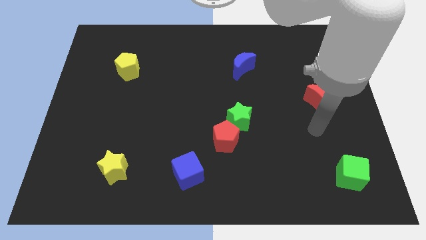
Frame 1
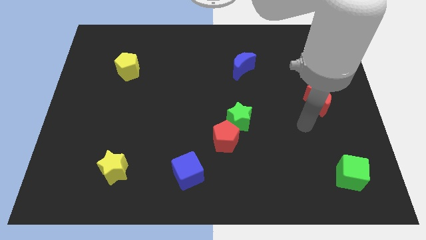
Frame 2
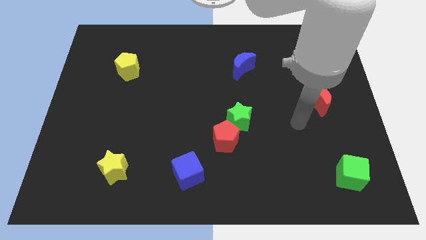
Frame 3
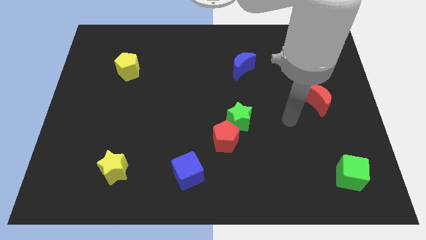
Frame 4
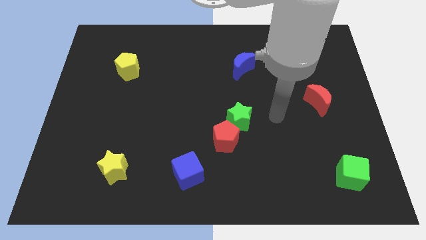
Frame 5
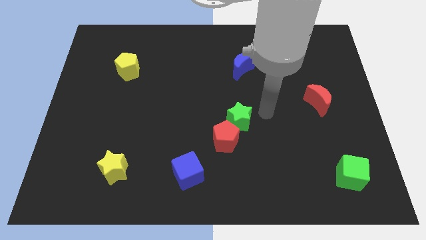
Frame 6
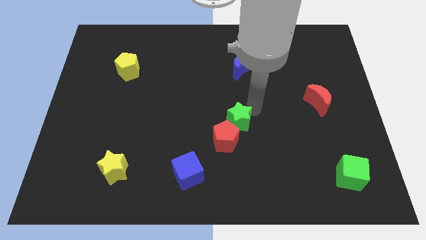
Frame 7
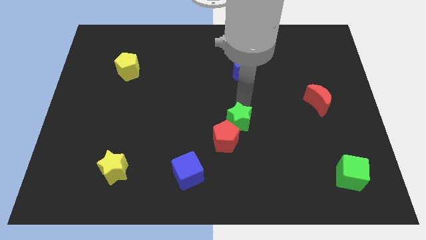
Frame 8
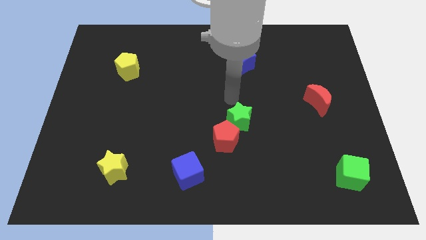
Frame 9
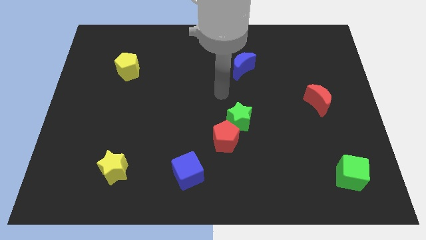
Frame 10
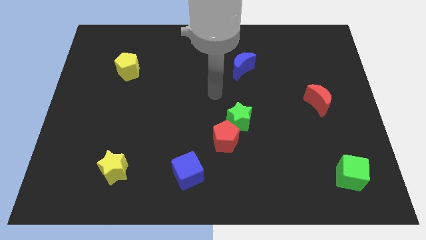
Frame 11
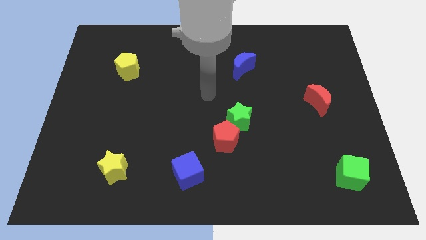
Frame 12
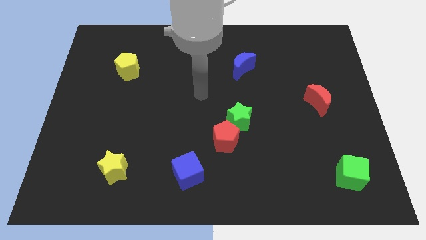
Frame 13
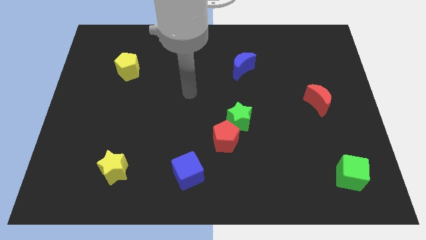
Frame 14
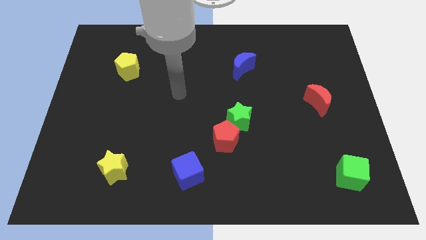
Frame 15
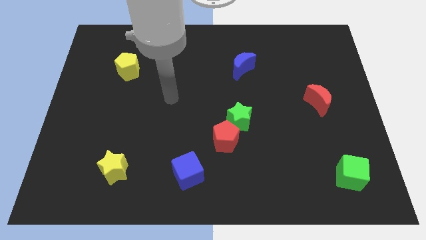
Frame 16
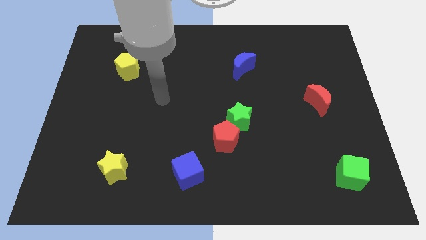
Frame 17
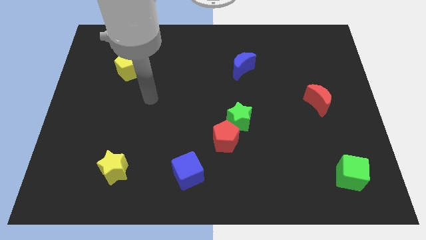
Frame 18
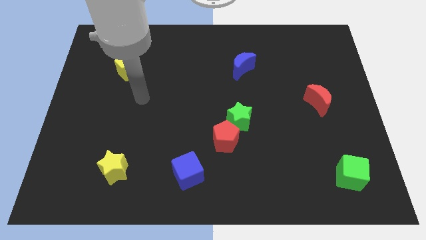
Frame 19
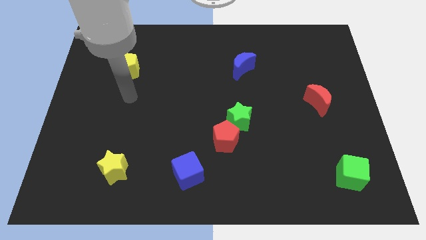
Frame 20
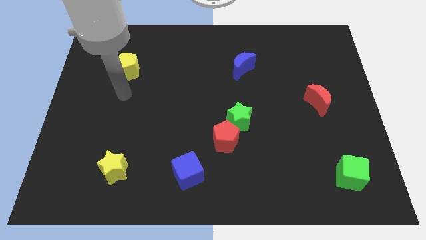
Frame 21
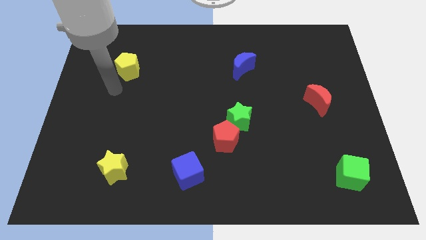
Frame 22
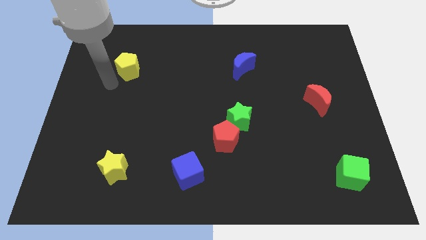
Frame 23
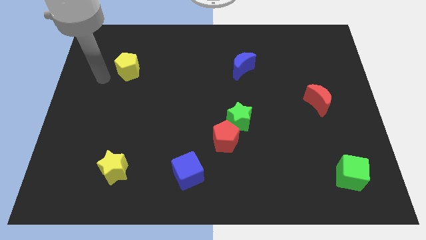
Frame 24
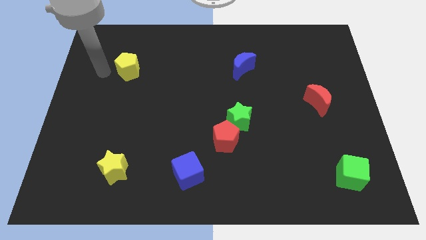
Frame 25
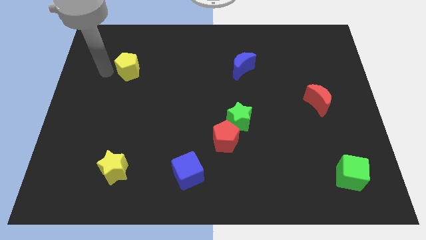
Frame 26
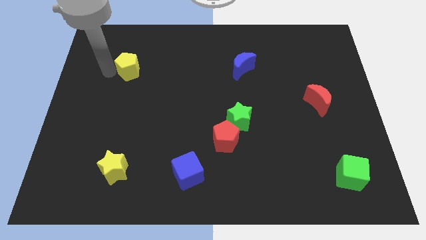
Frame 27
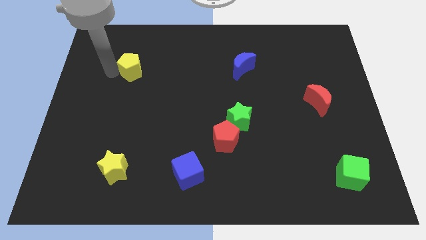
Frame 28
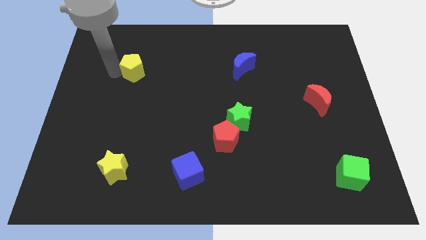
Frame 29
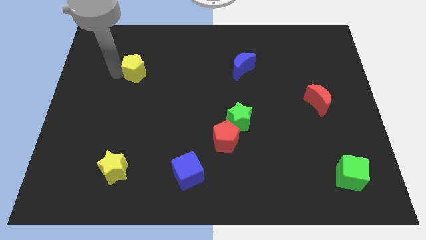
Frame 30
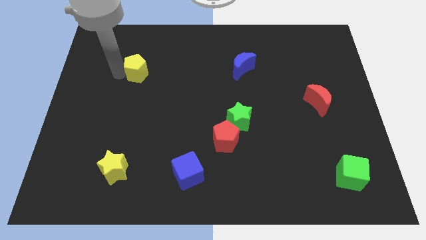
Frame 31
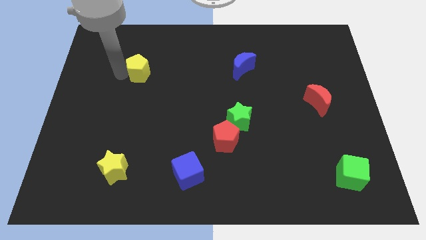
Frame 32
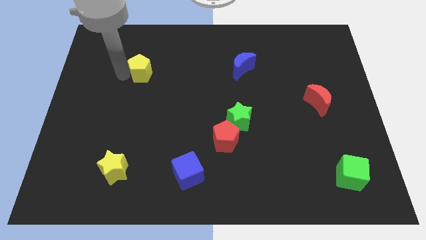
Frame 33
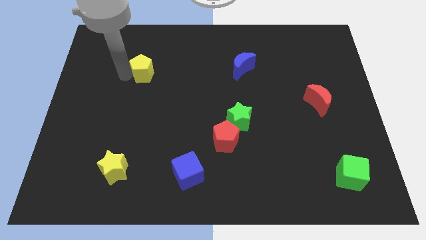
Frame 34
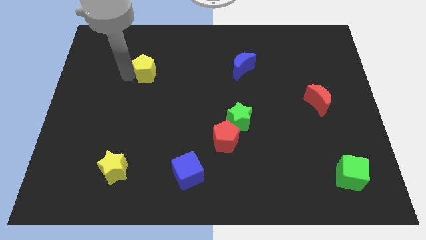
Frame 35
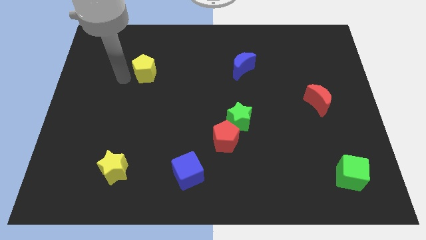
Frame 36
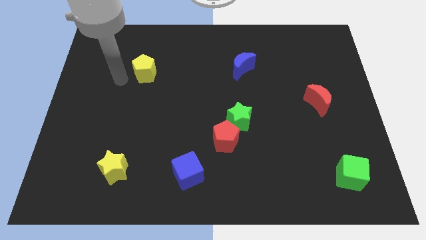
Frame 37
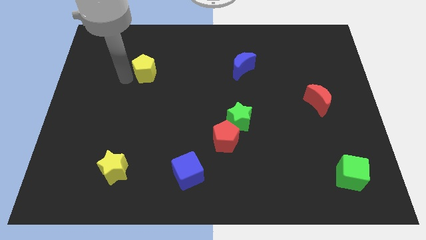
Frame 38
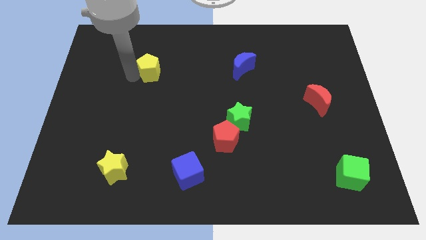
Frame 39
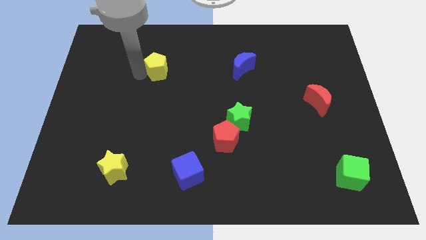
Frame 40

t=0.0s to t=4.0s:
slide the yellow pentagon a bit right

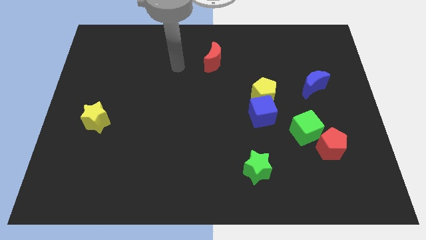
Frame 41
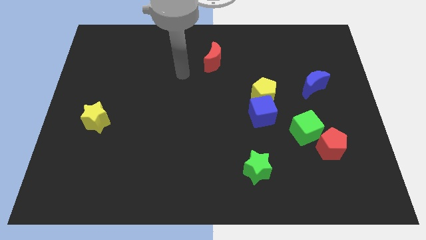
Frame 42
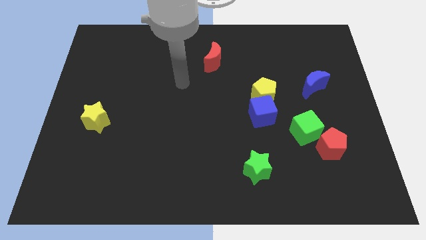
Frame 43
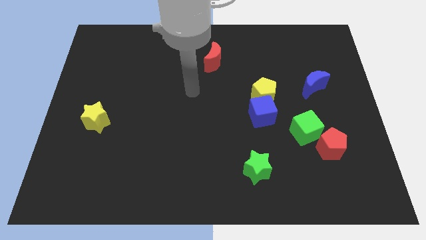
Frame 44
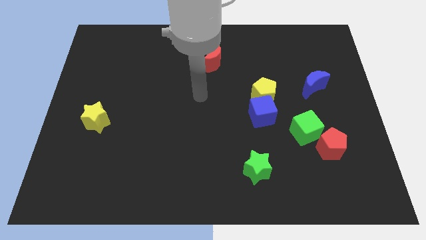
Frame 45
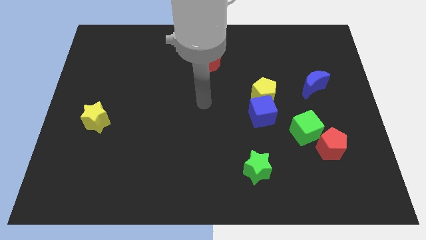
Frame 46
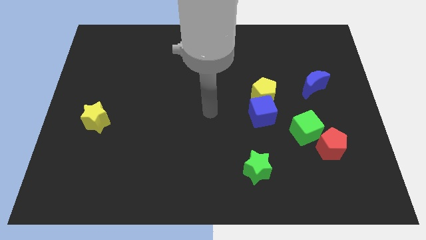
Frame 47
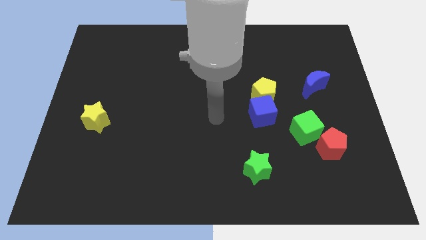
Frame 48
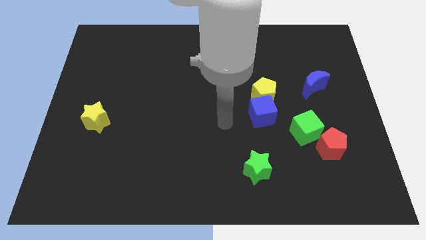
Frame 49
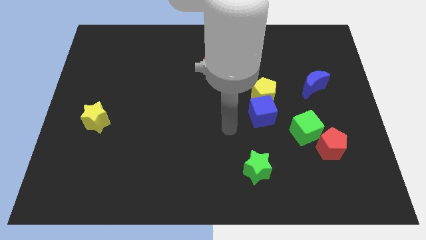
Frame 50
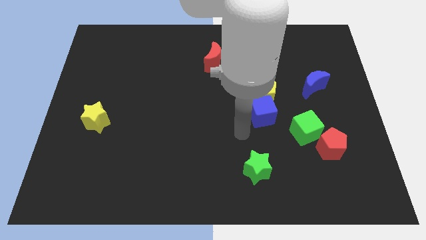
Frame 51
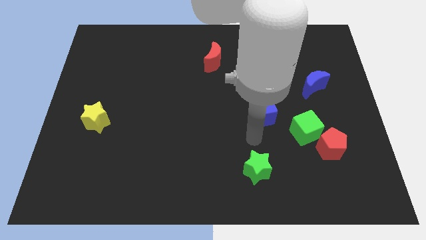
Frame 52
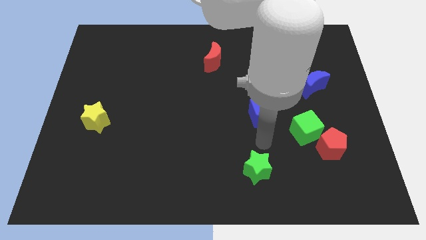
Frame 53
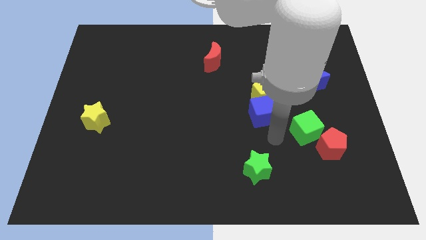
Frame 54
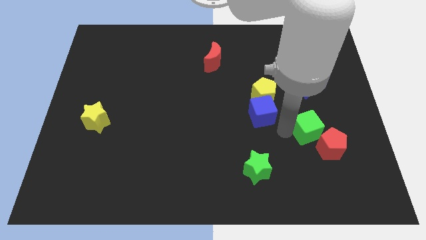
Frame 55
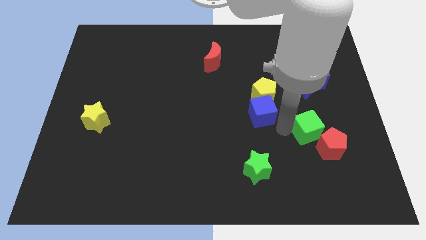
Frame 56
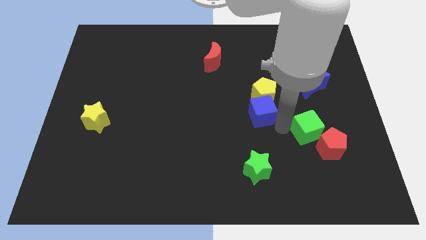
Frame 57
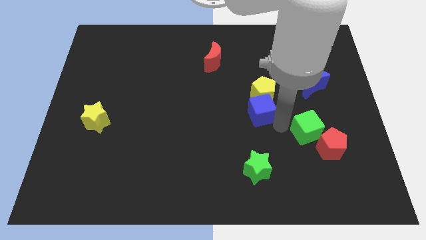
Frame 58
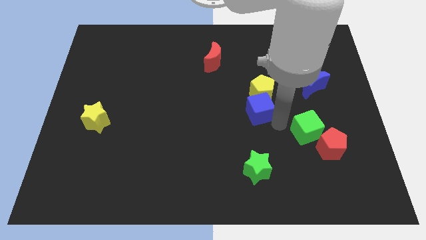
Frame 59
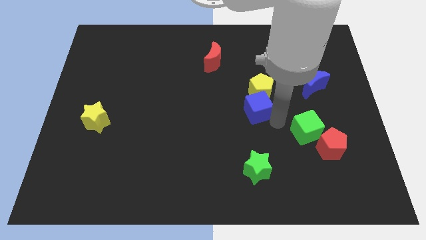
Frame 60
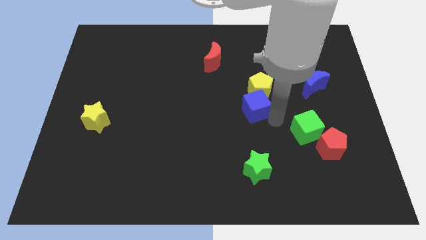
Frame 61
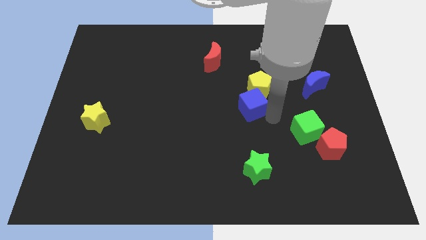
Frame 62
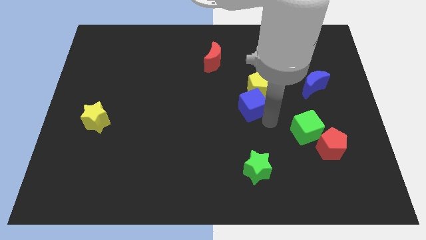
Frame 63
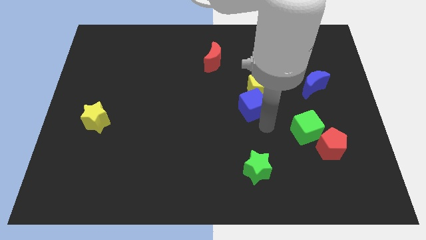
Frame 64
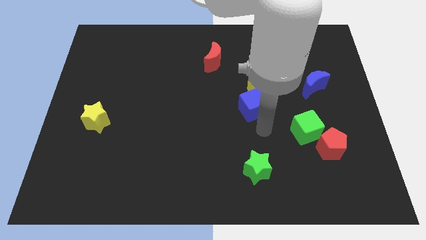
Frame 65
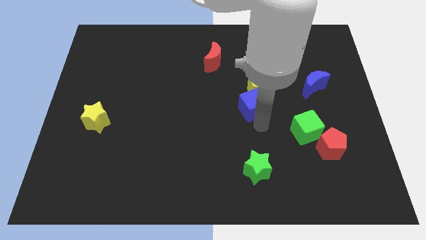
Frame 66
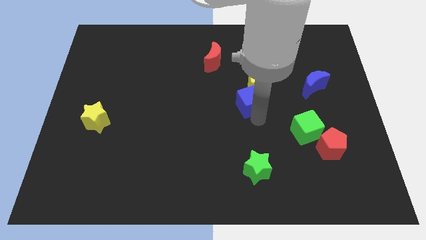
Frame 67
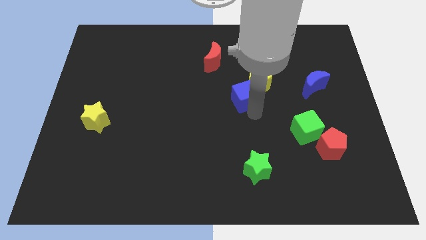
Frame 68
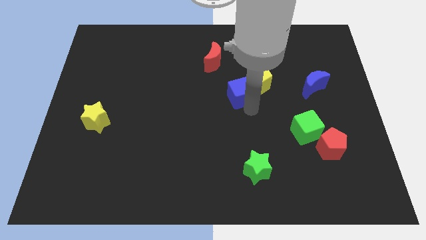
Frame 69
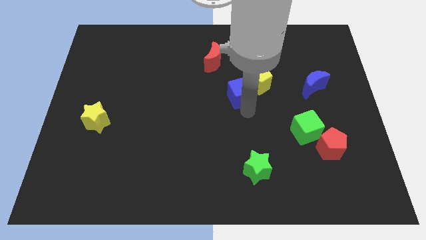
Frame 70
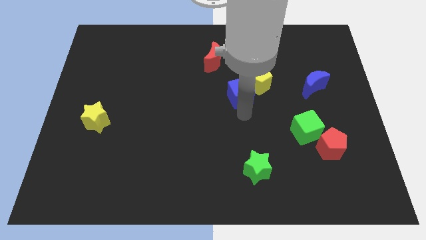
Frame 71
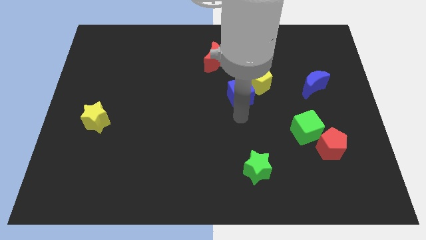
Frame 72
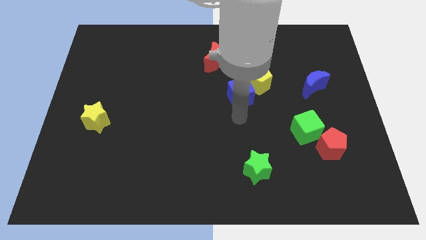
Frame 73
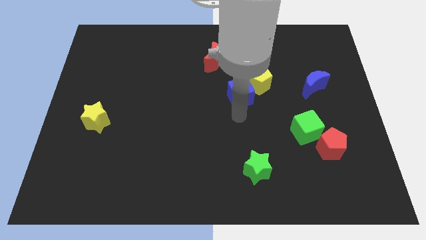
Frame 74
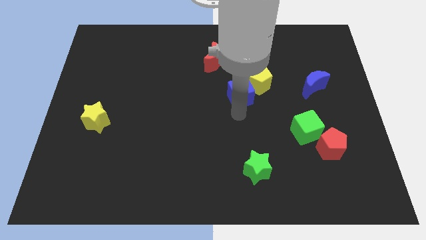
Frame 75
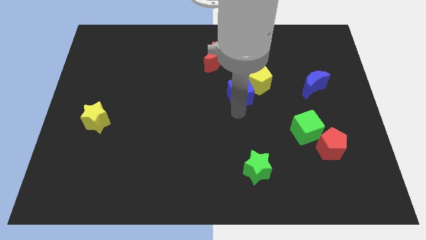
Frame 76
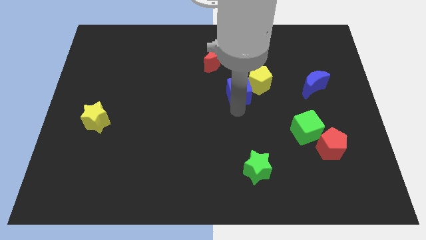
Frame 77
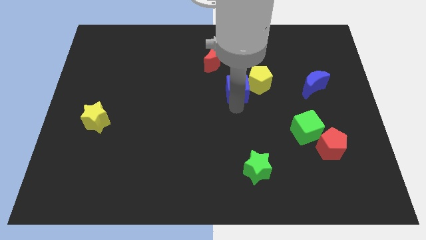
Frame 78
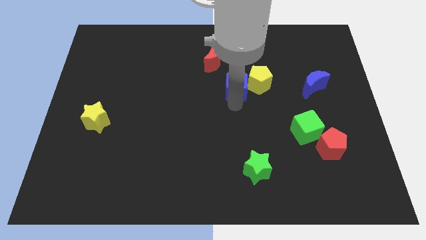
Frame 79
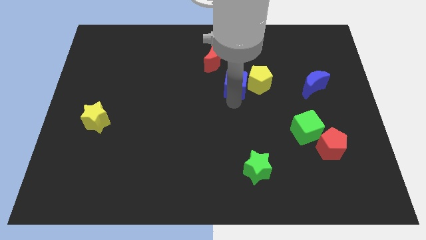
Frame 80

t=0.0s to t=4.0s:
push the blue cube up a bit

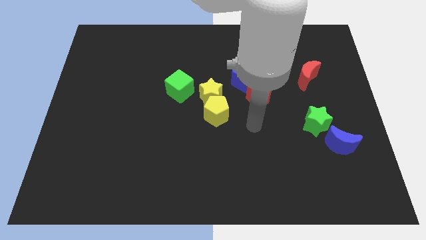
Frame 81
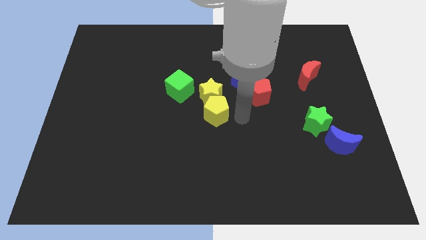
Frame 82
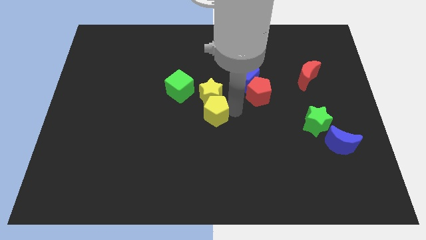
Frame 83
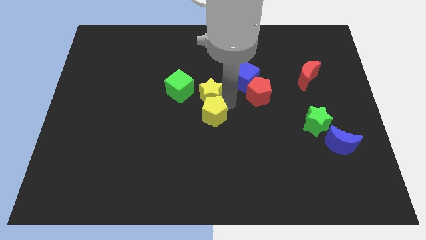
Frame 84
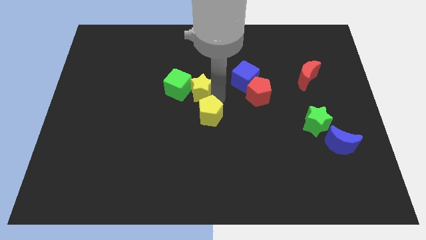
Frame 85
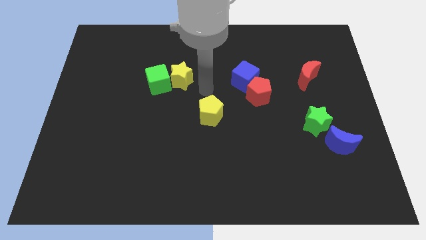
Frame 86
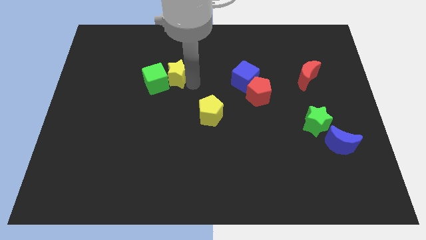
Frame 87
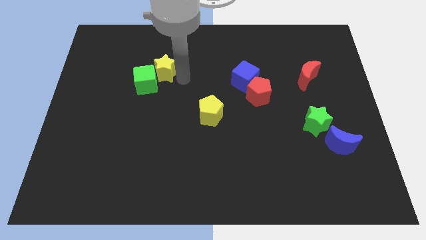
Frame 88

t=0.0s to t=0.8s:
slide the green cube a little bit left
